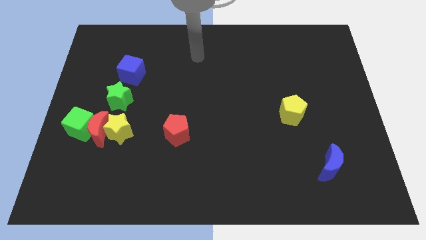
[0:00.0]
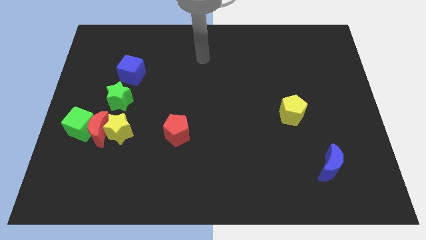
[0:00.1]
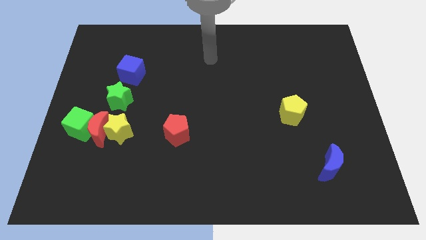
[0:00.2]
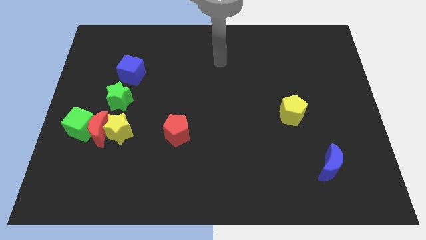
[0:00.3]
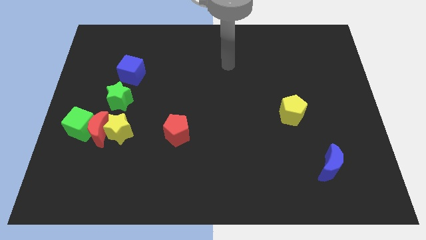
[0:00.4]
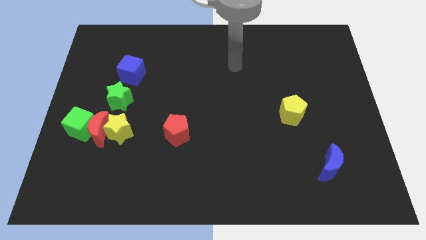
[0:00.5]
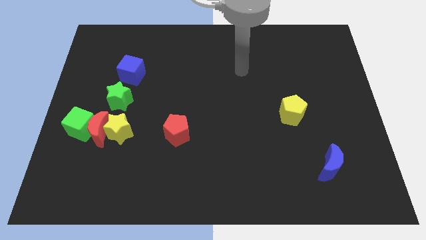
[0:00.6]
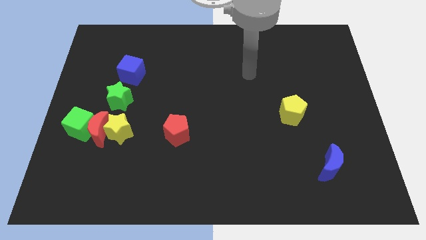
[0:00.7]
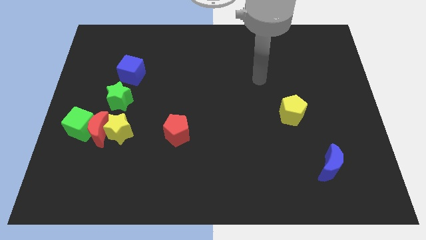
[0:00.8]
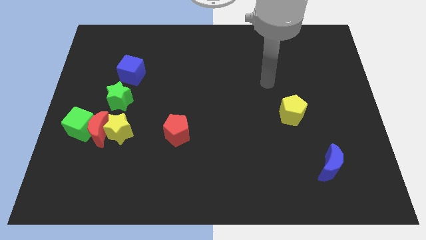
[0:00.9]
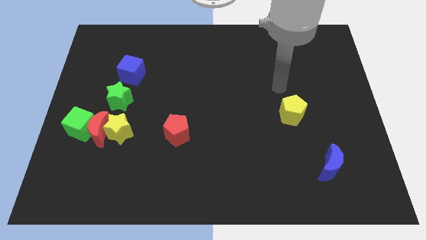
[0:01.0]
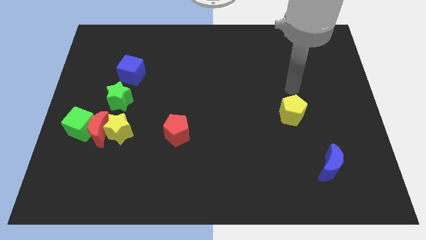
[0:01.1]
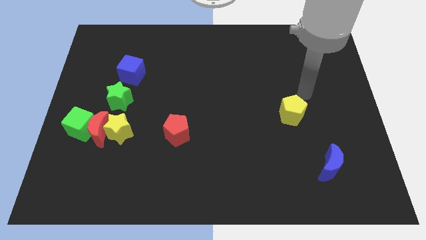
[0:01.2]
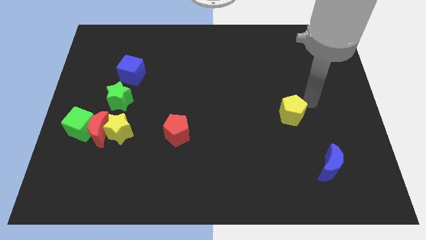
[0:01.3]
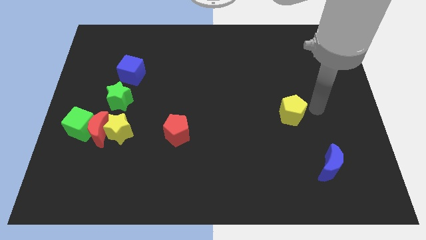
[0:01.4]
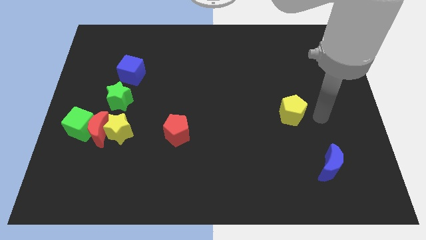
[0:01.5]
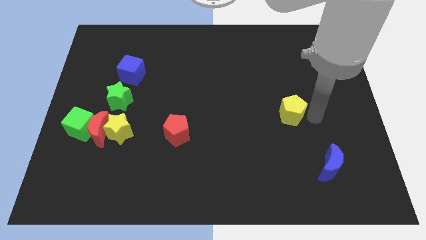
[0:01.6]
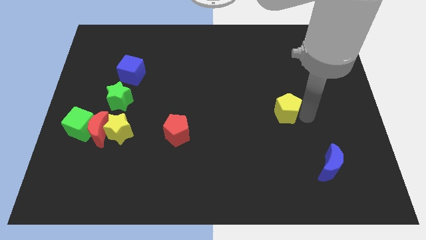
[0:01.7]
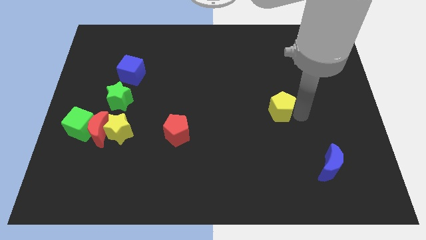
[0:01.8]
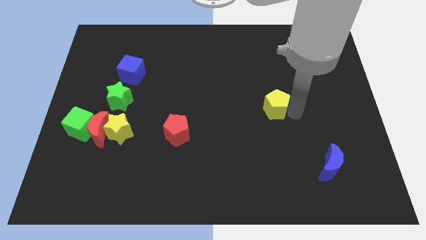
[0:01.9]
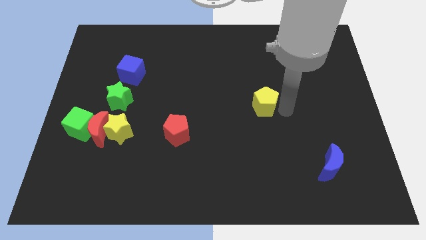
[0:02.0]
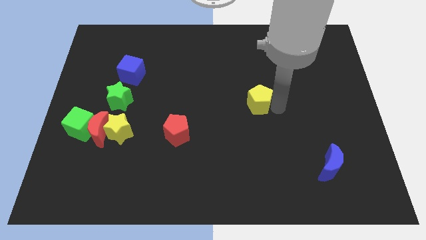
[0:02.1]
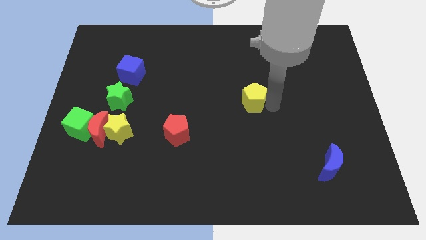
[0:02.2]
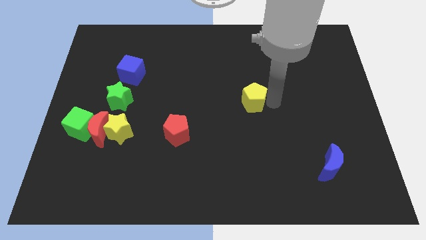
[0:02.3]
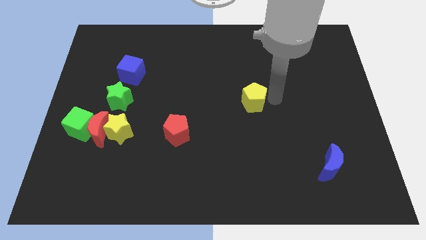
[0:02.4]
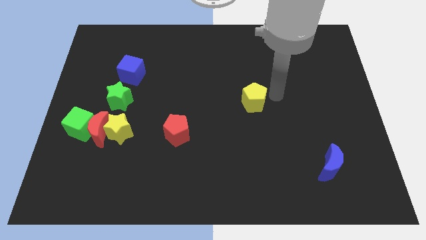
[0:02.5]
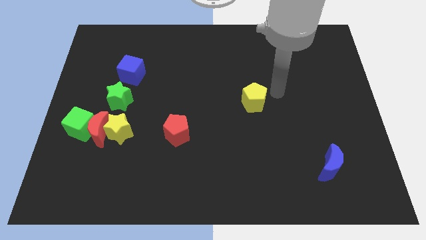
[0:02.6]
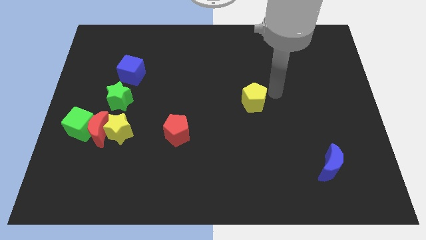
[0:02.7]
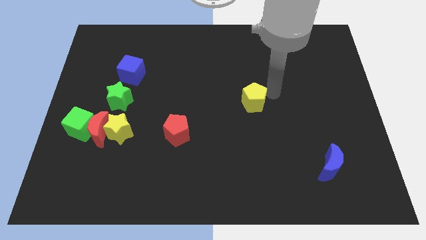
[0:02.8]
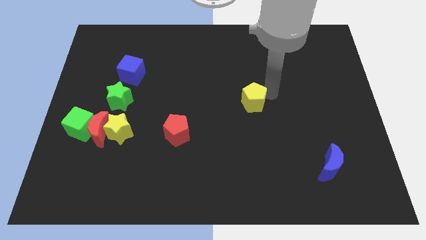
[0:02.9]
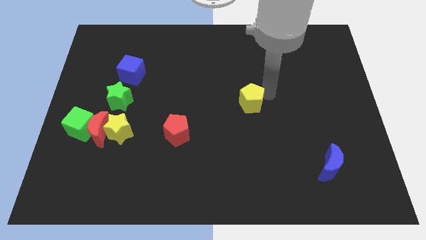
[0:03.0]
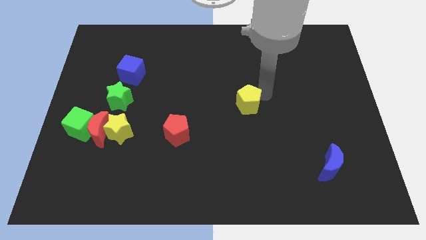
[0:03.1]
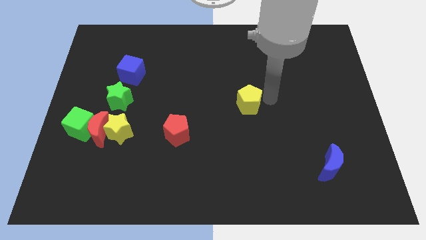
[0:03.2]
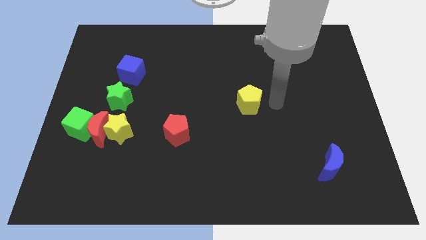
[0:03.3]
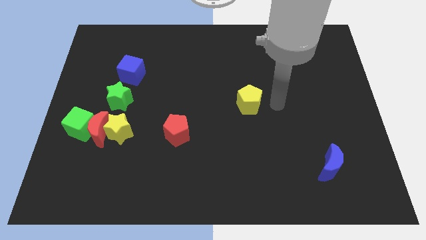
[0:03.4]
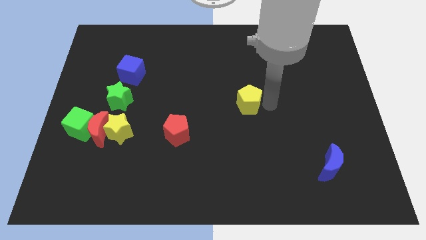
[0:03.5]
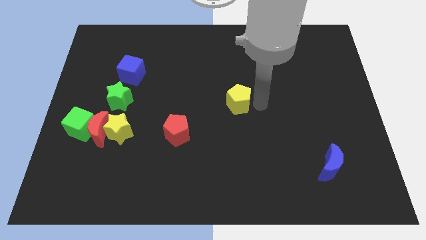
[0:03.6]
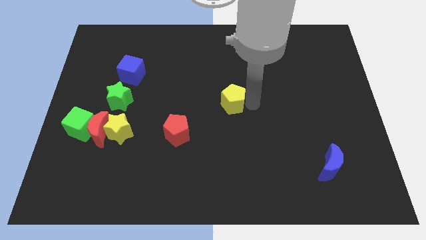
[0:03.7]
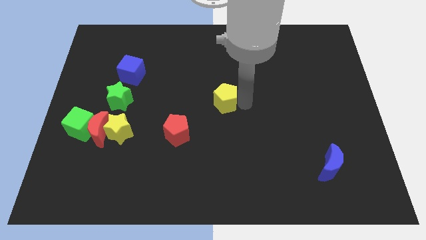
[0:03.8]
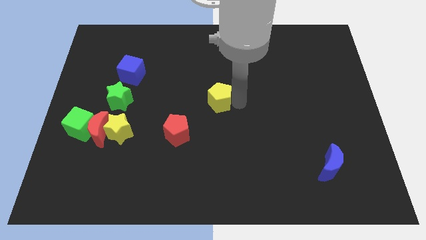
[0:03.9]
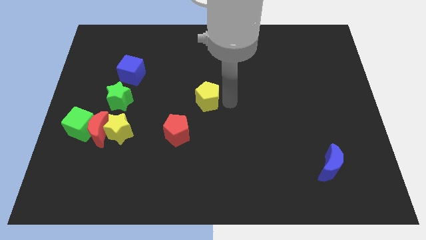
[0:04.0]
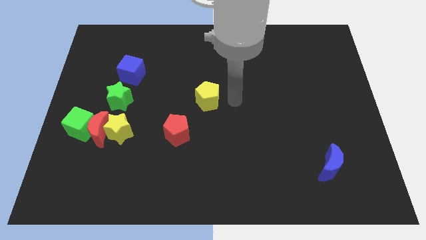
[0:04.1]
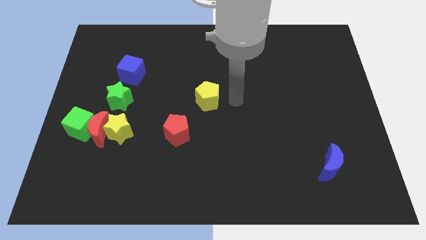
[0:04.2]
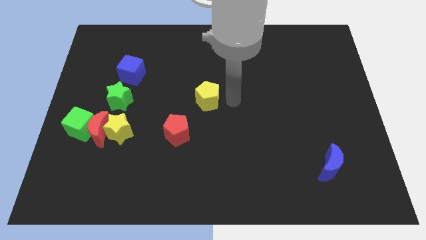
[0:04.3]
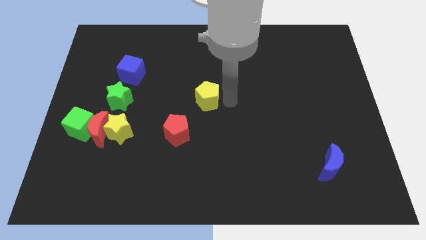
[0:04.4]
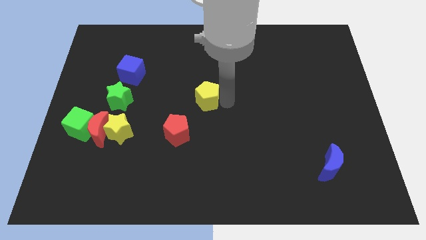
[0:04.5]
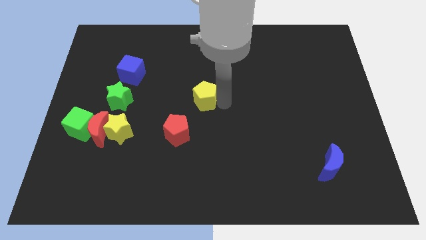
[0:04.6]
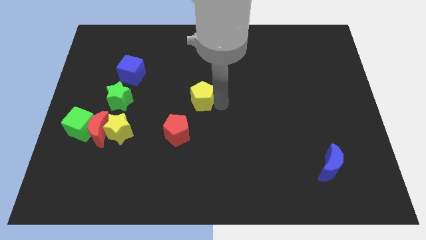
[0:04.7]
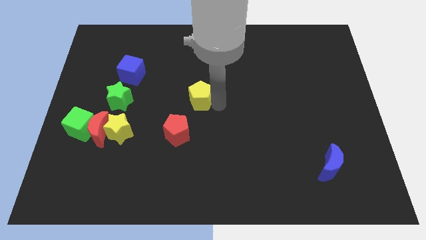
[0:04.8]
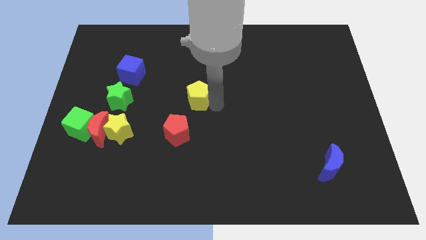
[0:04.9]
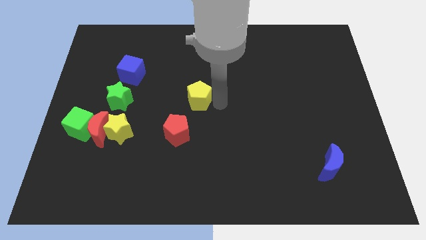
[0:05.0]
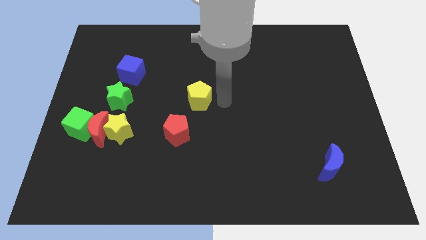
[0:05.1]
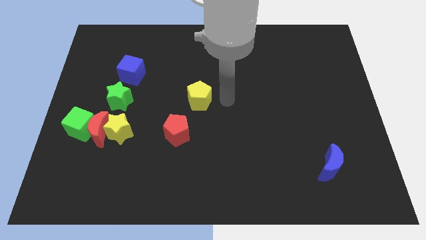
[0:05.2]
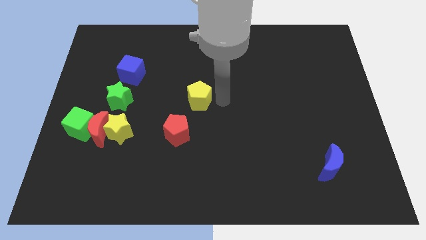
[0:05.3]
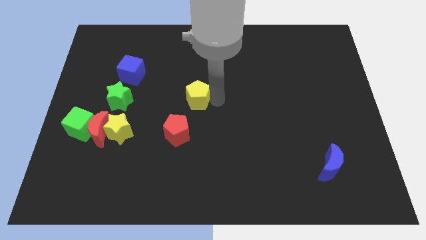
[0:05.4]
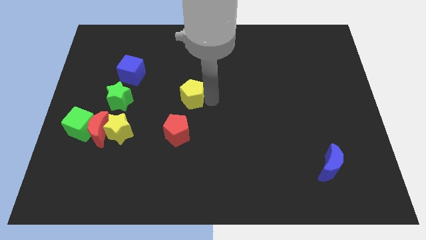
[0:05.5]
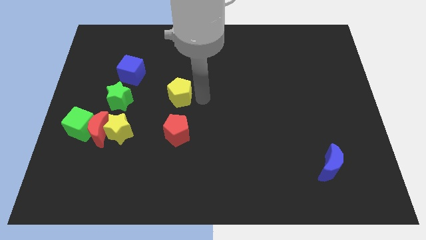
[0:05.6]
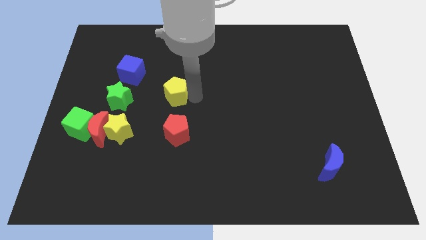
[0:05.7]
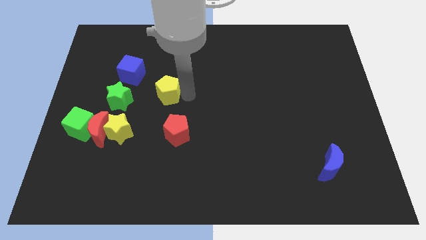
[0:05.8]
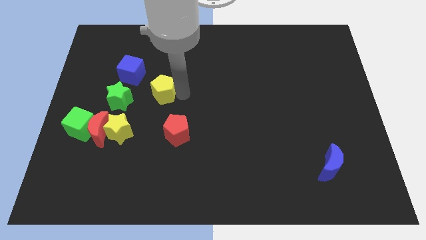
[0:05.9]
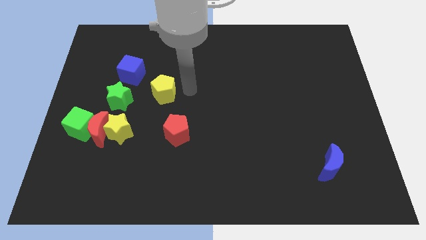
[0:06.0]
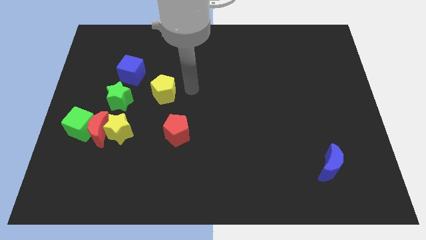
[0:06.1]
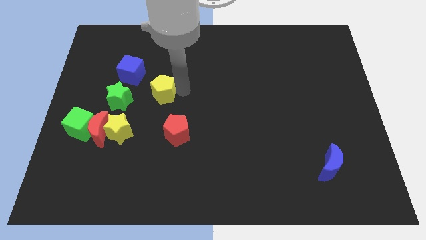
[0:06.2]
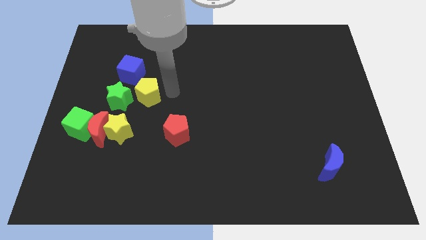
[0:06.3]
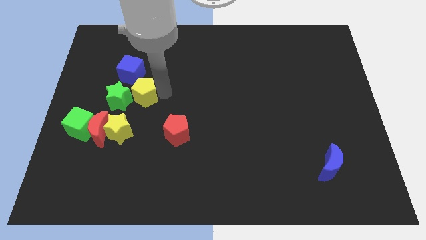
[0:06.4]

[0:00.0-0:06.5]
move the yellow pentagon close to the green star

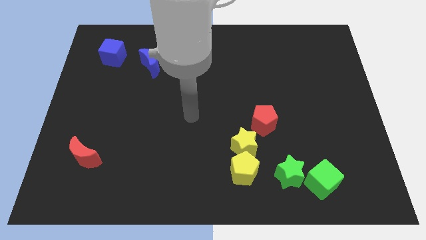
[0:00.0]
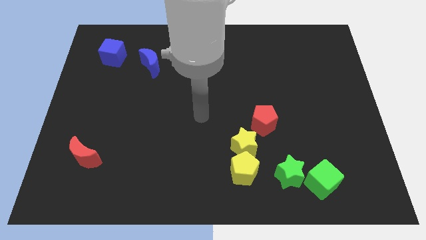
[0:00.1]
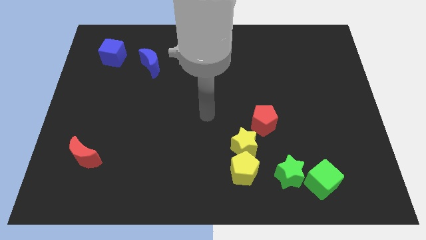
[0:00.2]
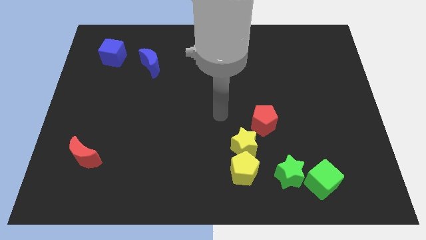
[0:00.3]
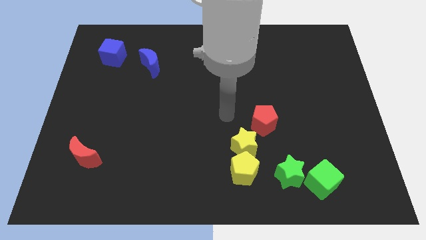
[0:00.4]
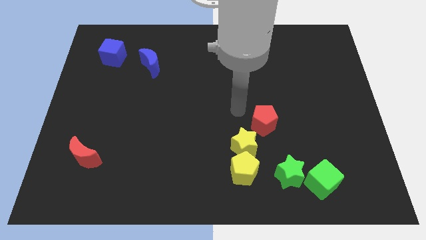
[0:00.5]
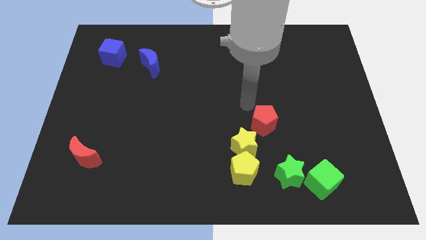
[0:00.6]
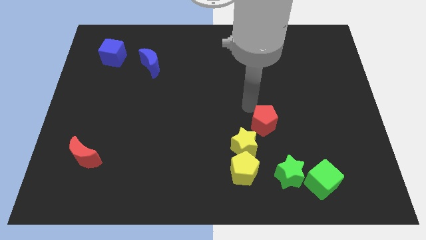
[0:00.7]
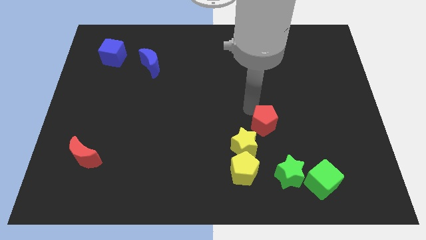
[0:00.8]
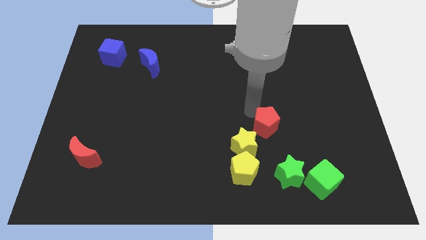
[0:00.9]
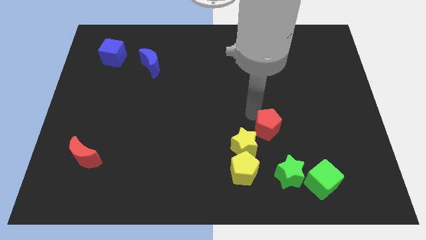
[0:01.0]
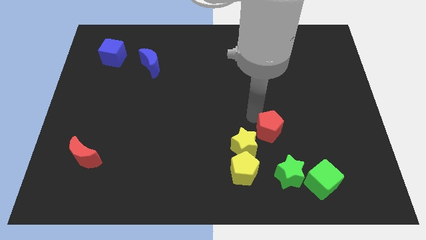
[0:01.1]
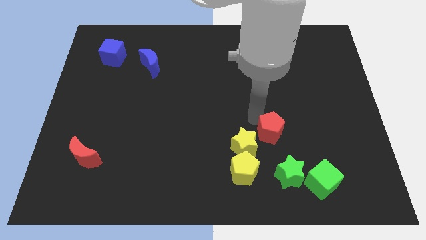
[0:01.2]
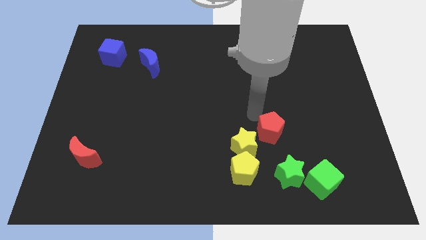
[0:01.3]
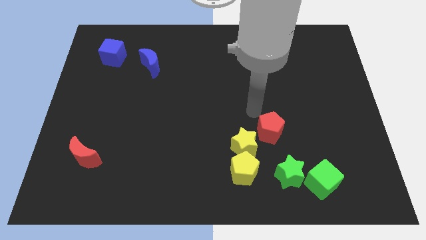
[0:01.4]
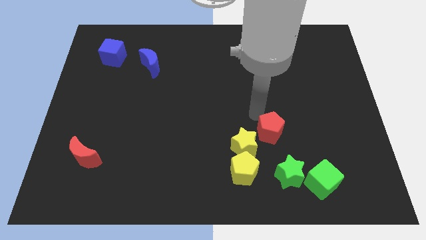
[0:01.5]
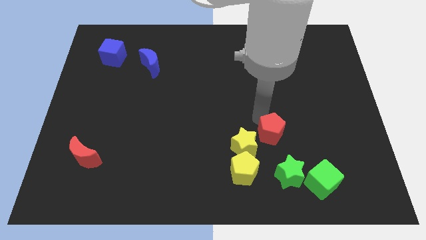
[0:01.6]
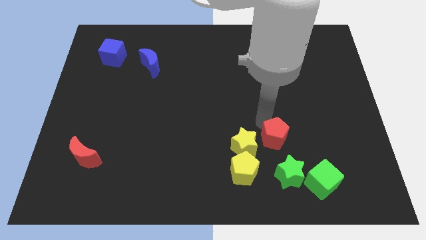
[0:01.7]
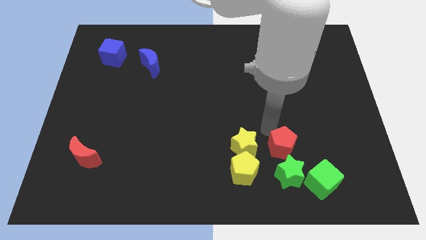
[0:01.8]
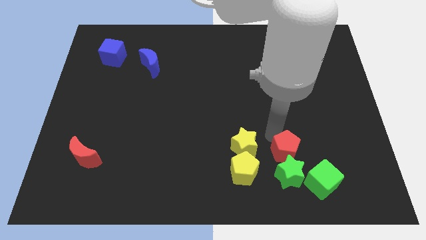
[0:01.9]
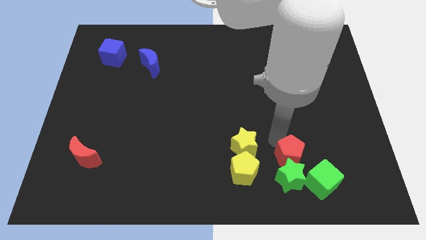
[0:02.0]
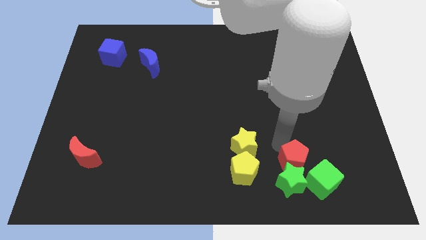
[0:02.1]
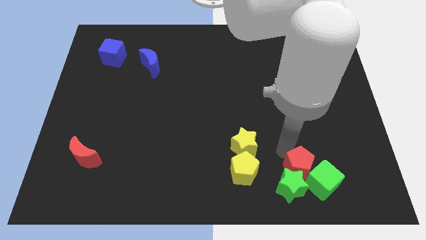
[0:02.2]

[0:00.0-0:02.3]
push the red pentagon next to the green cube
